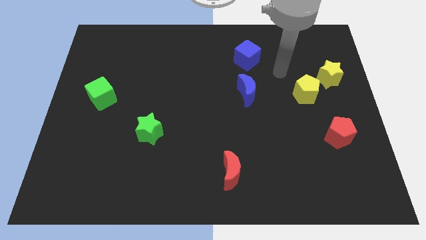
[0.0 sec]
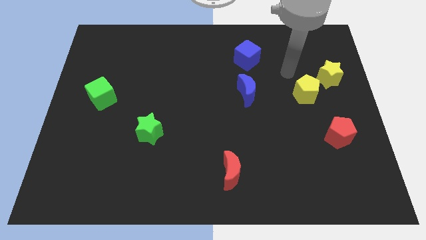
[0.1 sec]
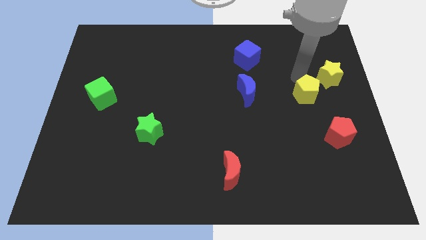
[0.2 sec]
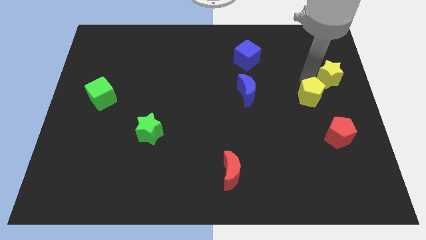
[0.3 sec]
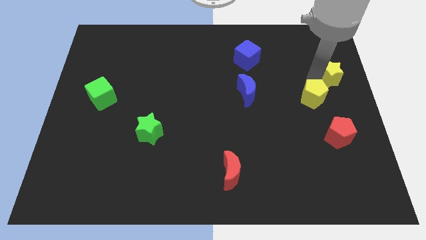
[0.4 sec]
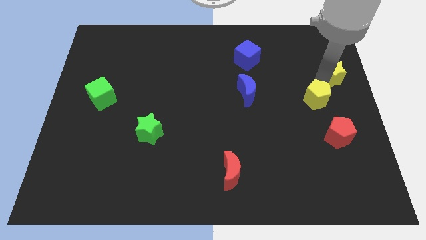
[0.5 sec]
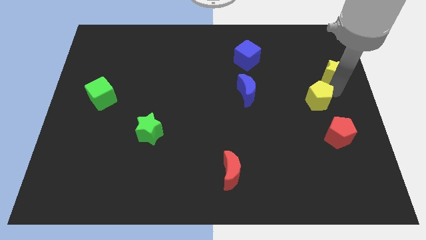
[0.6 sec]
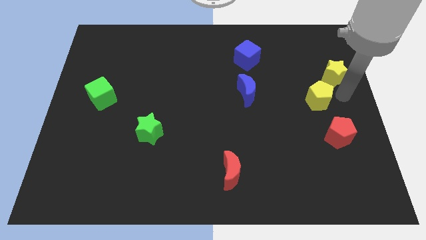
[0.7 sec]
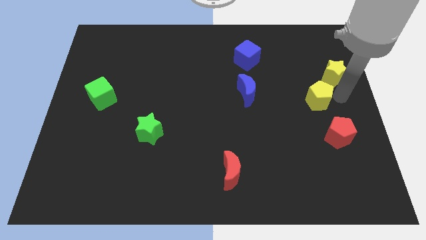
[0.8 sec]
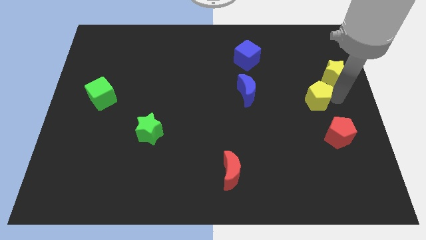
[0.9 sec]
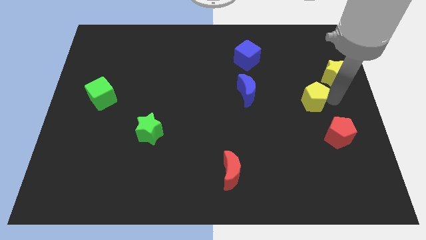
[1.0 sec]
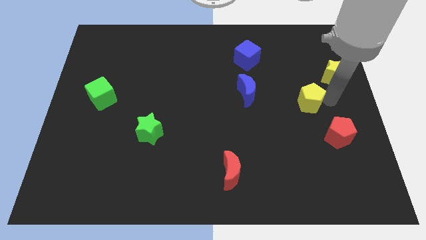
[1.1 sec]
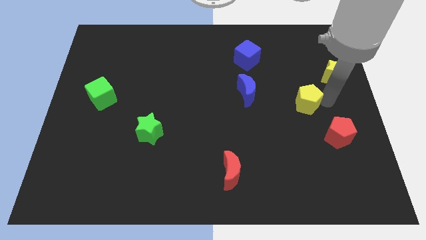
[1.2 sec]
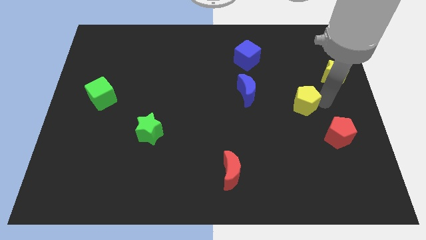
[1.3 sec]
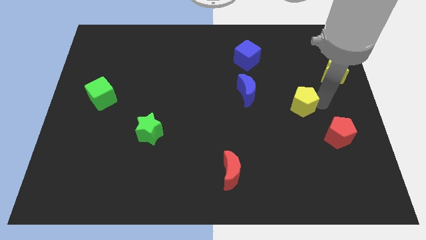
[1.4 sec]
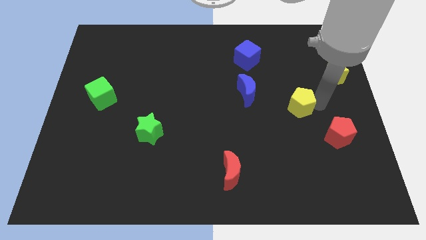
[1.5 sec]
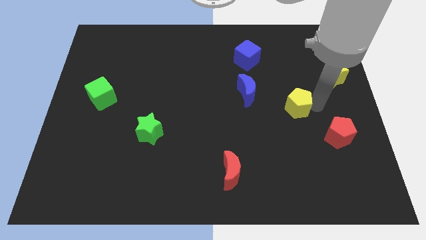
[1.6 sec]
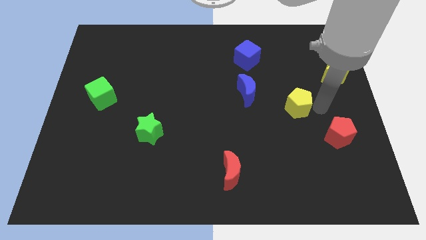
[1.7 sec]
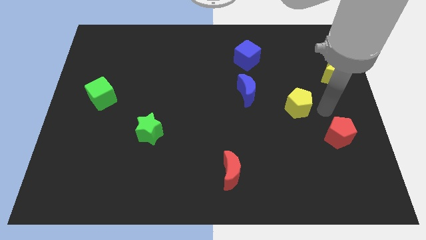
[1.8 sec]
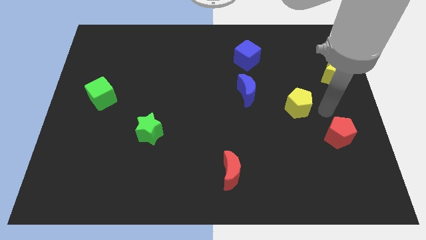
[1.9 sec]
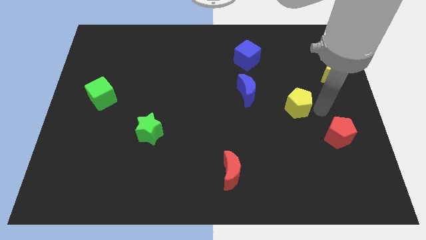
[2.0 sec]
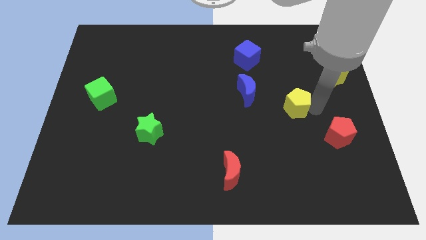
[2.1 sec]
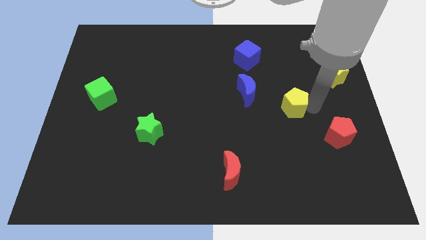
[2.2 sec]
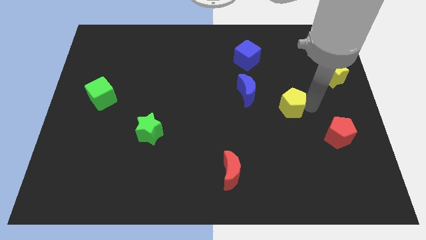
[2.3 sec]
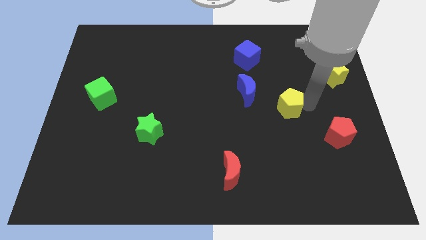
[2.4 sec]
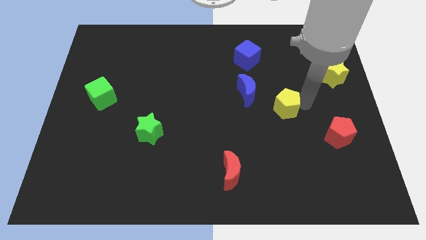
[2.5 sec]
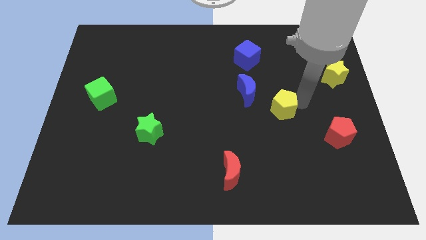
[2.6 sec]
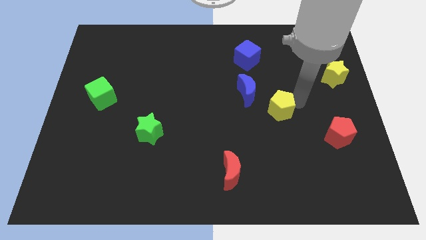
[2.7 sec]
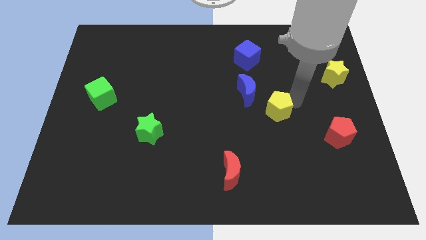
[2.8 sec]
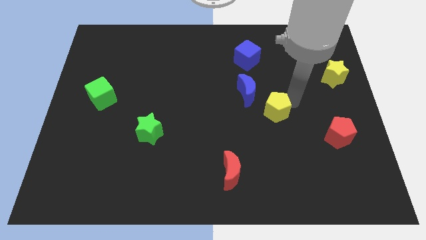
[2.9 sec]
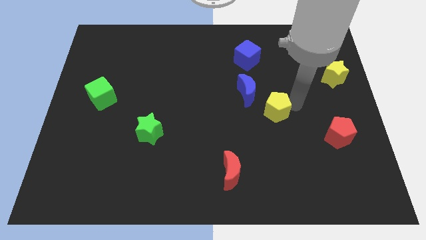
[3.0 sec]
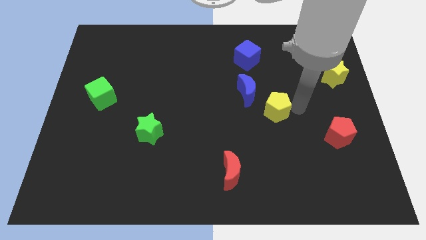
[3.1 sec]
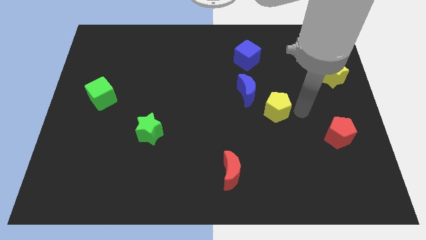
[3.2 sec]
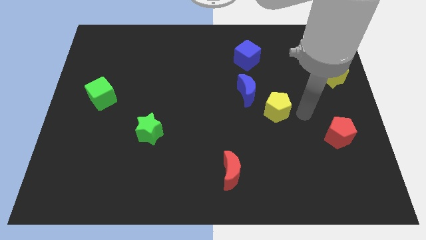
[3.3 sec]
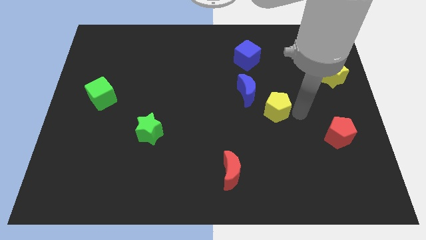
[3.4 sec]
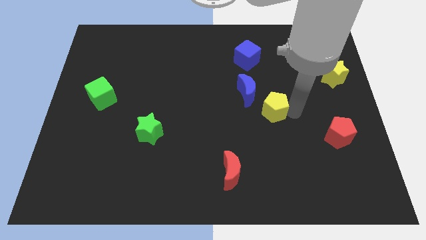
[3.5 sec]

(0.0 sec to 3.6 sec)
slightly move the yellow pentagon to the left

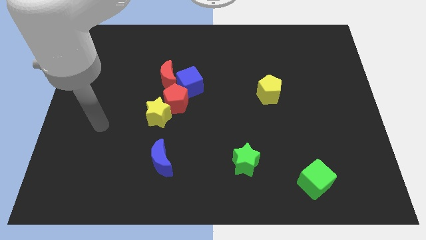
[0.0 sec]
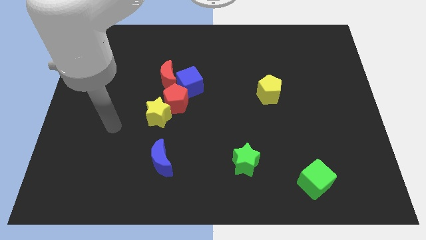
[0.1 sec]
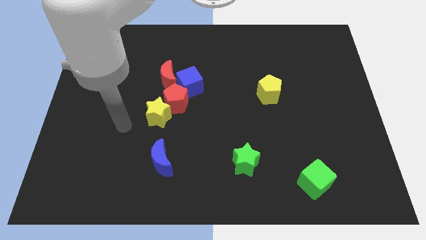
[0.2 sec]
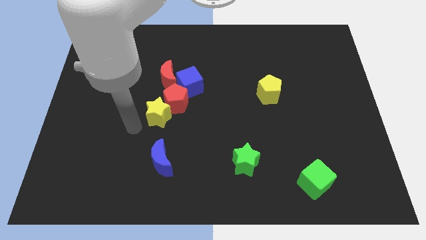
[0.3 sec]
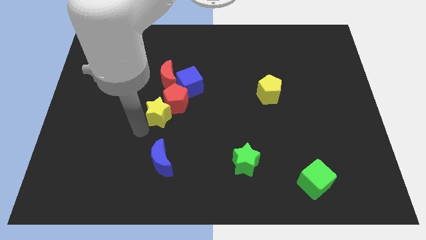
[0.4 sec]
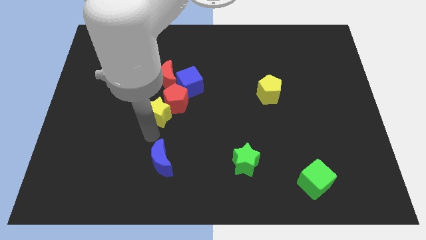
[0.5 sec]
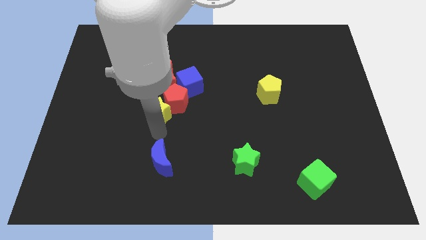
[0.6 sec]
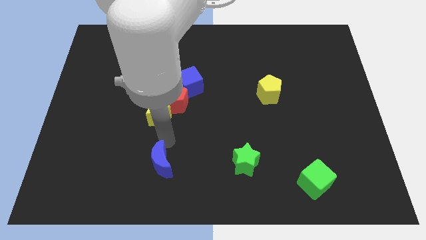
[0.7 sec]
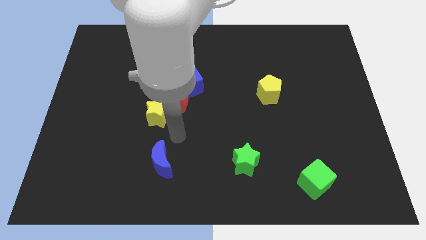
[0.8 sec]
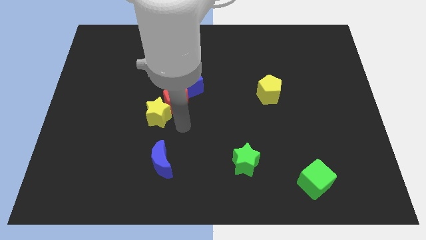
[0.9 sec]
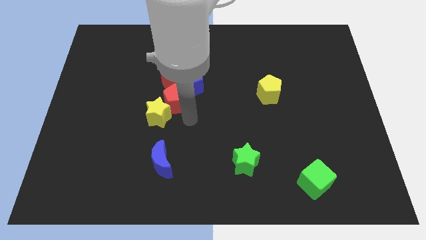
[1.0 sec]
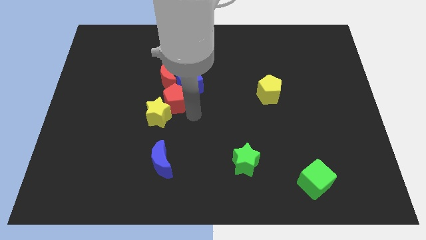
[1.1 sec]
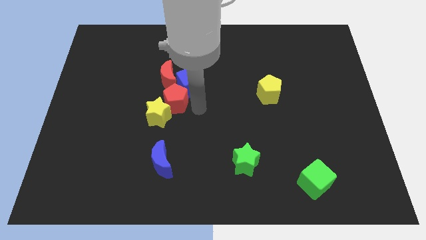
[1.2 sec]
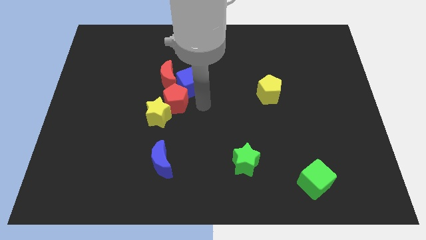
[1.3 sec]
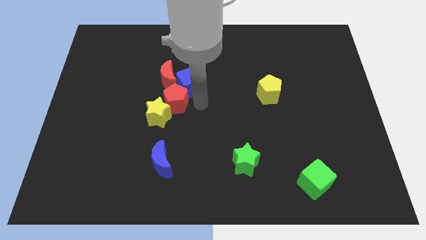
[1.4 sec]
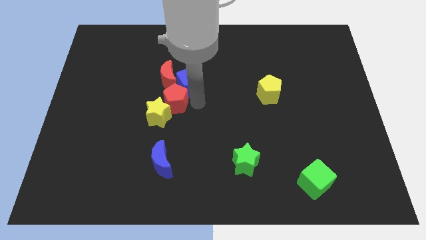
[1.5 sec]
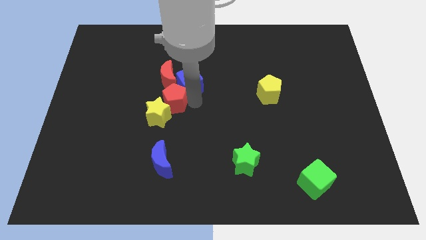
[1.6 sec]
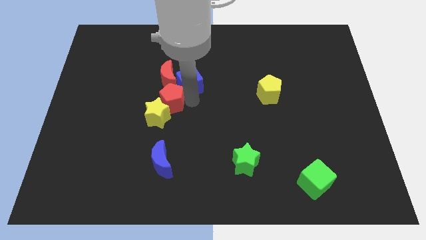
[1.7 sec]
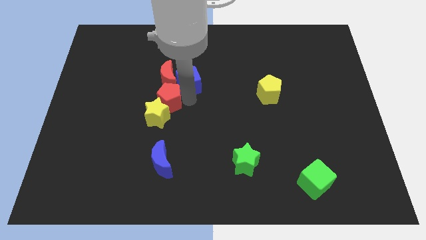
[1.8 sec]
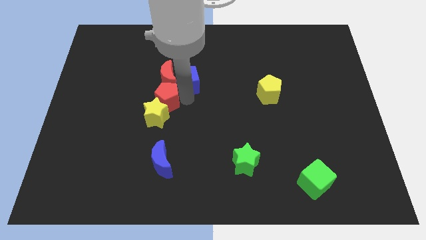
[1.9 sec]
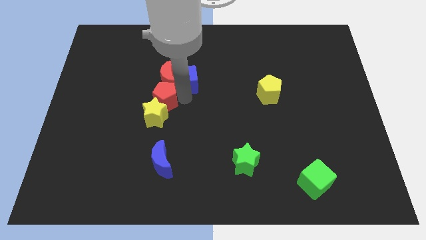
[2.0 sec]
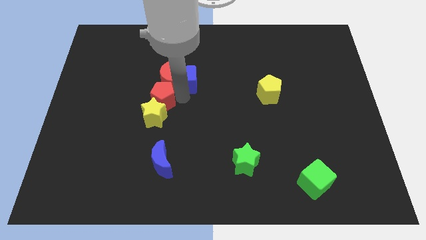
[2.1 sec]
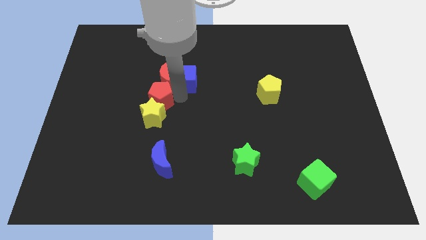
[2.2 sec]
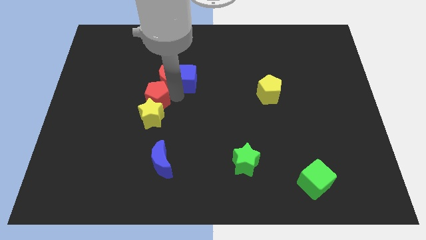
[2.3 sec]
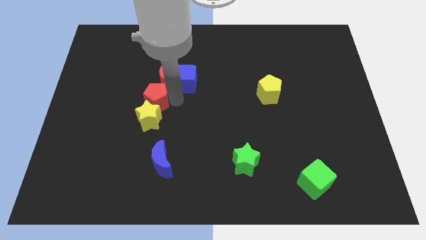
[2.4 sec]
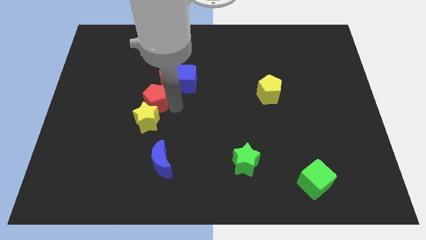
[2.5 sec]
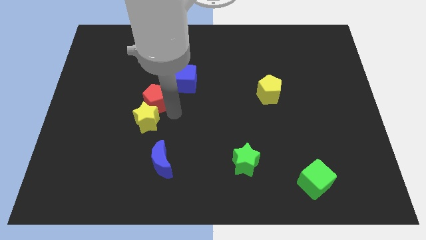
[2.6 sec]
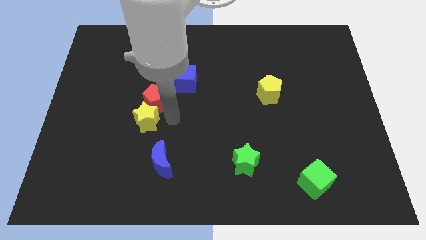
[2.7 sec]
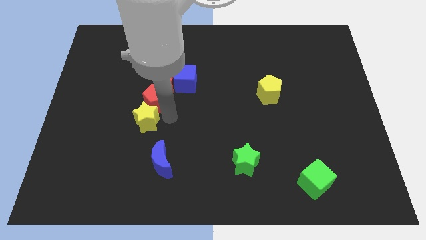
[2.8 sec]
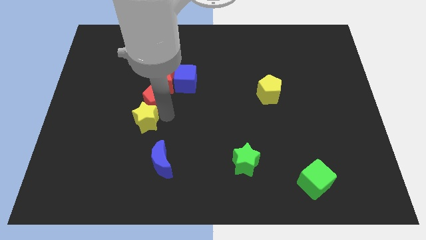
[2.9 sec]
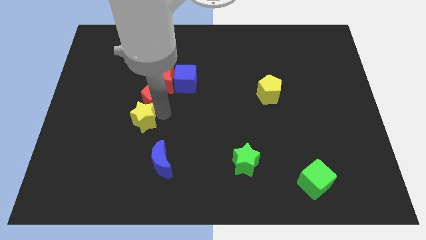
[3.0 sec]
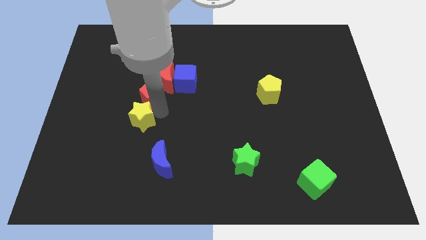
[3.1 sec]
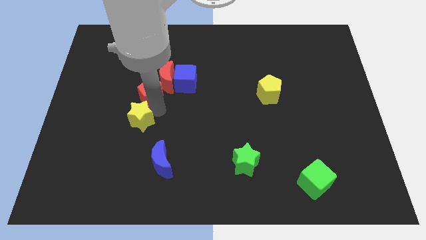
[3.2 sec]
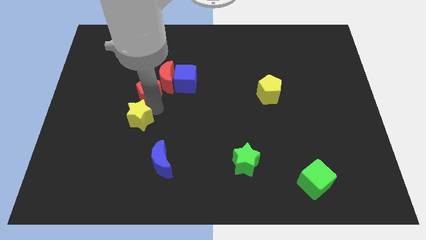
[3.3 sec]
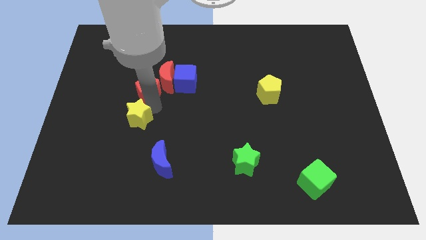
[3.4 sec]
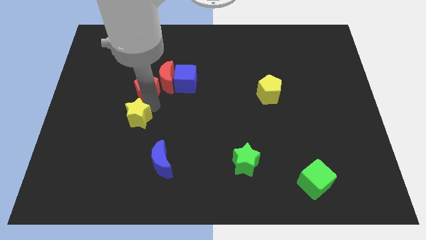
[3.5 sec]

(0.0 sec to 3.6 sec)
move the red pentagon a bit upwards and to the left diagonally

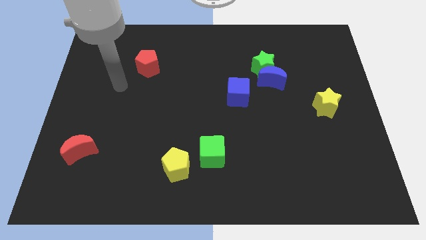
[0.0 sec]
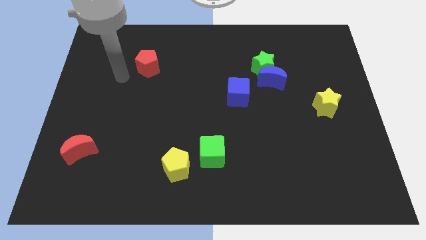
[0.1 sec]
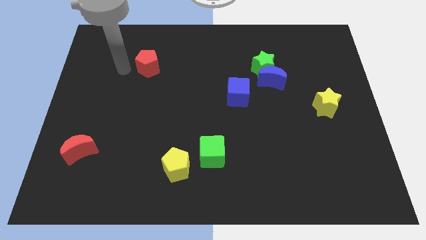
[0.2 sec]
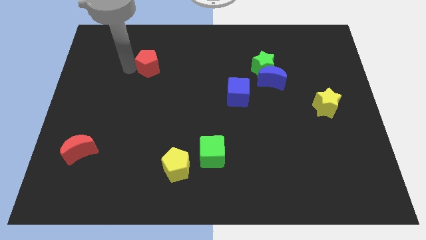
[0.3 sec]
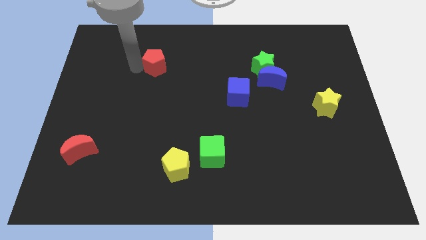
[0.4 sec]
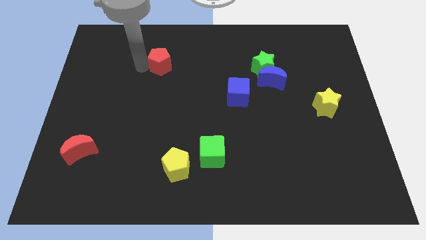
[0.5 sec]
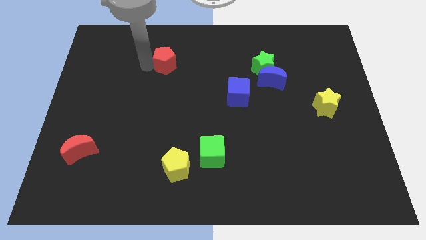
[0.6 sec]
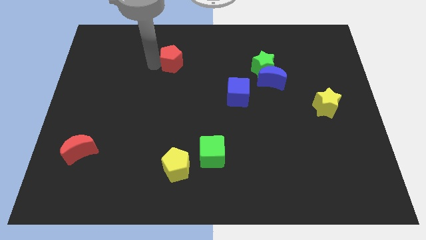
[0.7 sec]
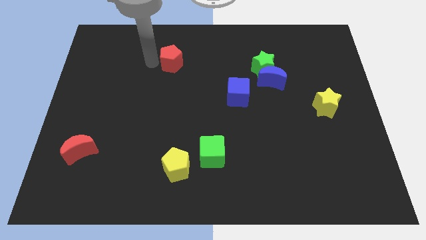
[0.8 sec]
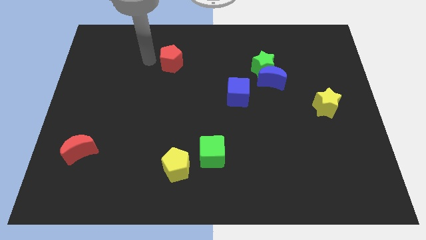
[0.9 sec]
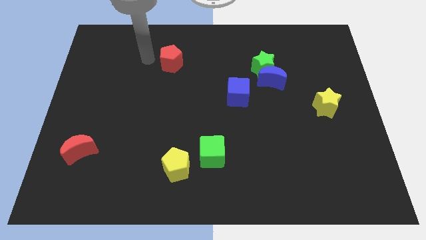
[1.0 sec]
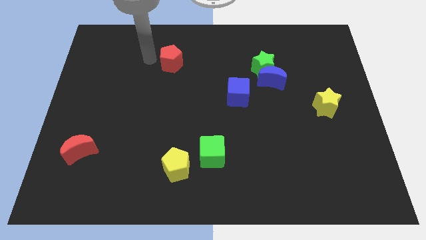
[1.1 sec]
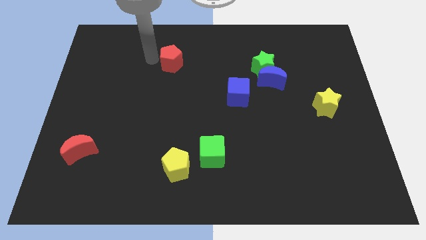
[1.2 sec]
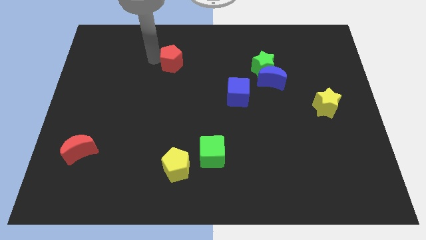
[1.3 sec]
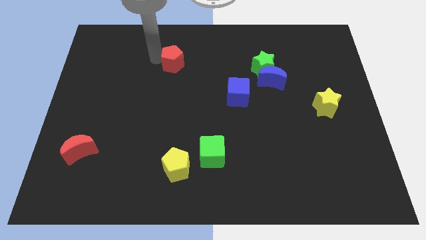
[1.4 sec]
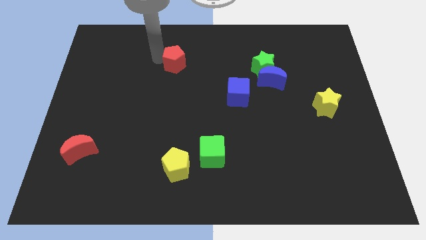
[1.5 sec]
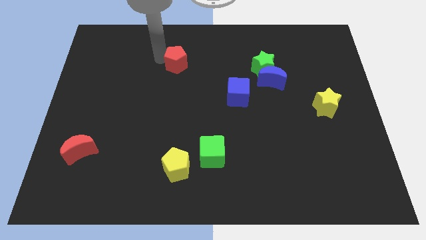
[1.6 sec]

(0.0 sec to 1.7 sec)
move the red pentagon somewhat to the right
